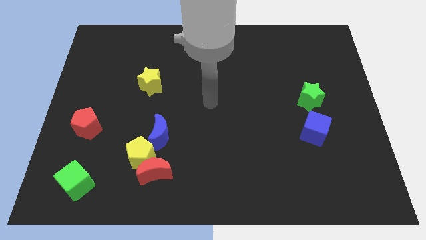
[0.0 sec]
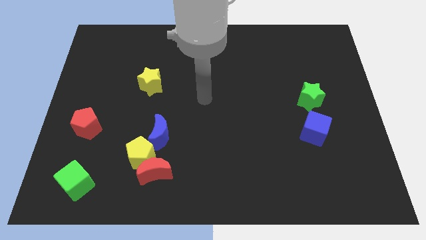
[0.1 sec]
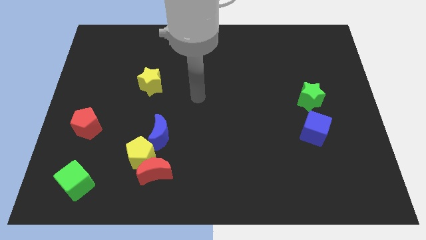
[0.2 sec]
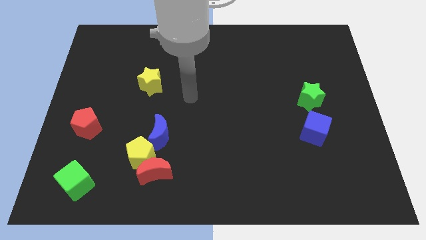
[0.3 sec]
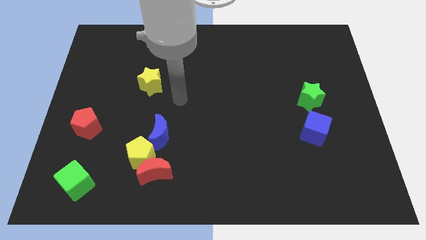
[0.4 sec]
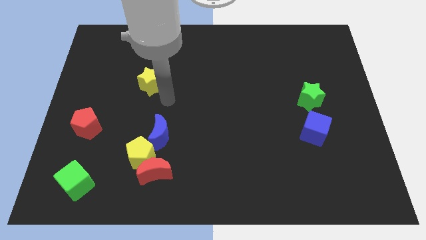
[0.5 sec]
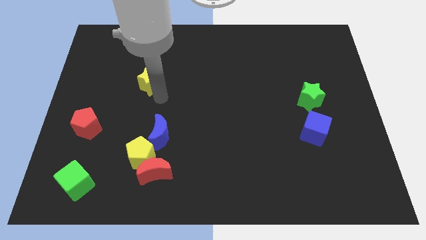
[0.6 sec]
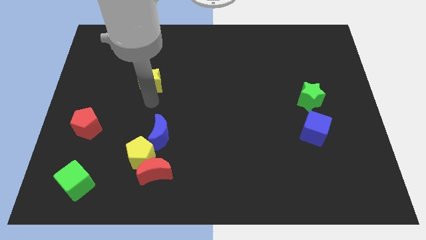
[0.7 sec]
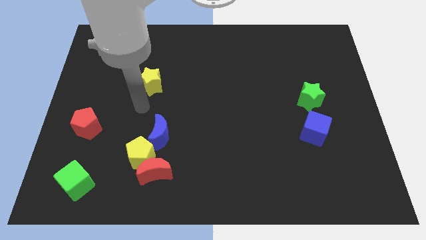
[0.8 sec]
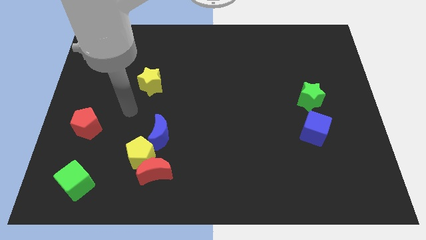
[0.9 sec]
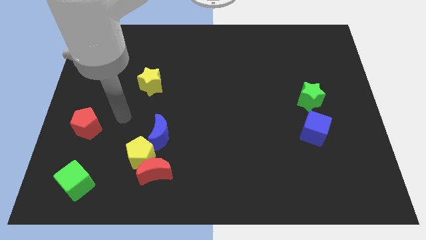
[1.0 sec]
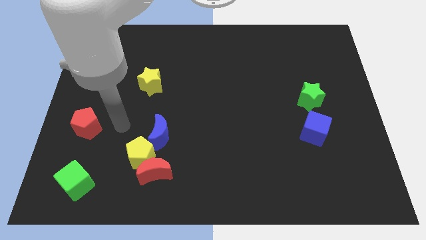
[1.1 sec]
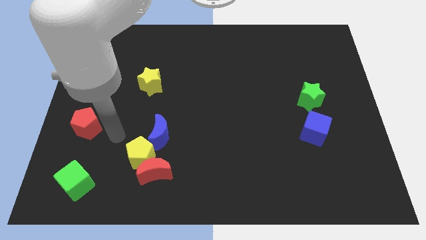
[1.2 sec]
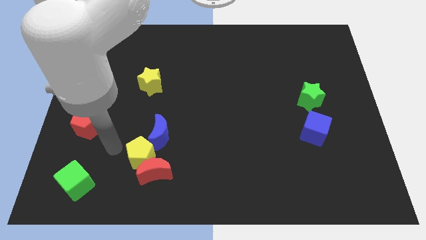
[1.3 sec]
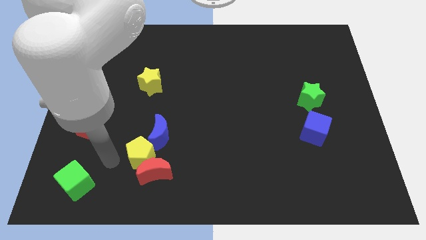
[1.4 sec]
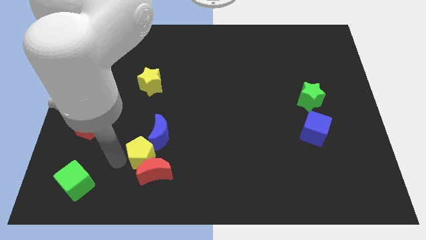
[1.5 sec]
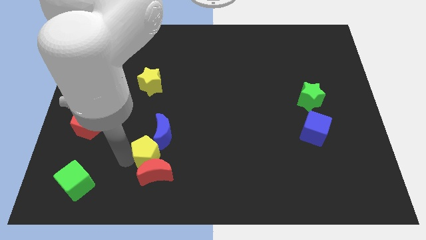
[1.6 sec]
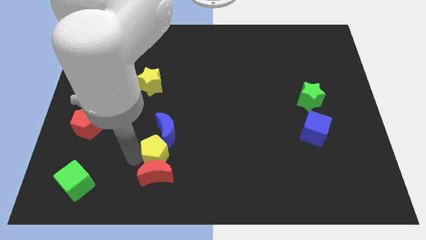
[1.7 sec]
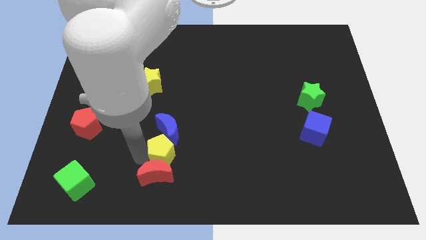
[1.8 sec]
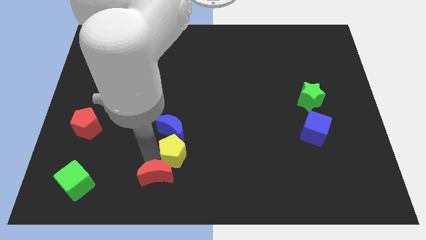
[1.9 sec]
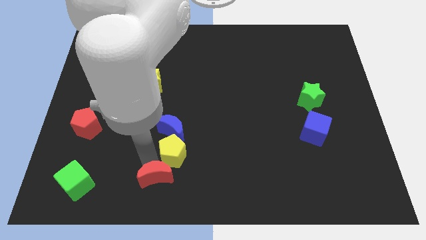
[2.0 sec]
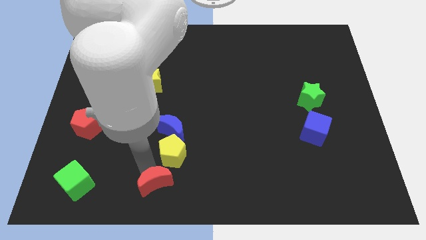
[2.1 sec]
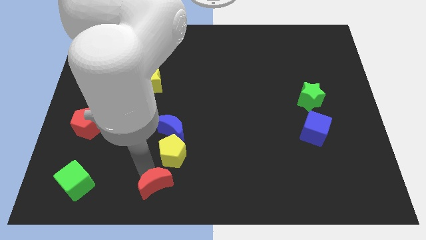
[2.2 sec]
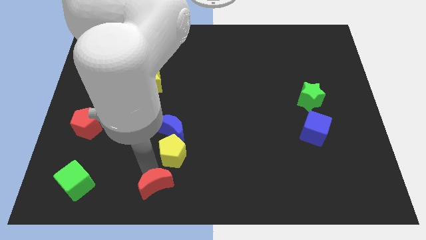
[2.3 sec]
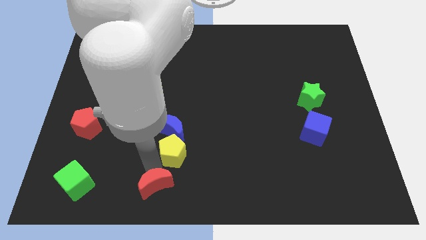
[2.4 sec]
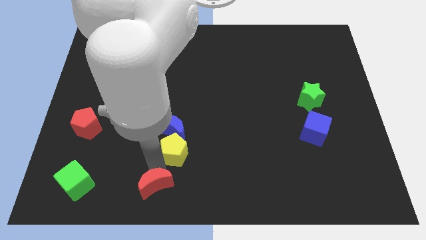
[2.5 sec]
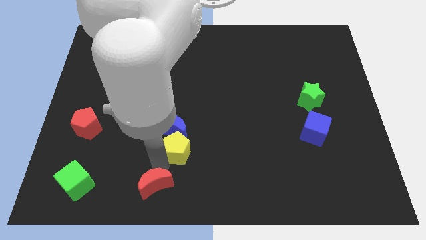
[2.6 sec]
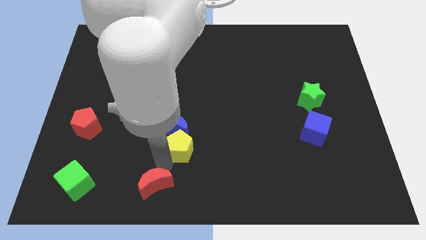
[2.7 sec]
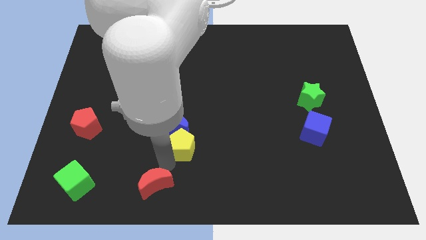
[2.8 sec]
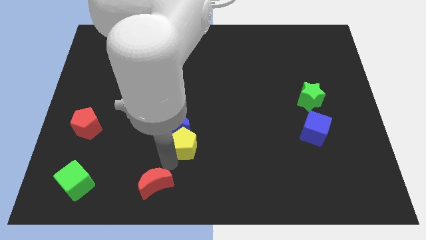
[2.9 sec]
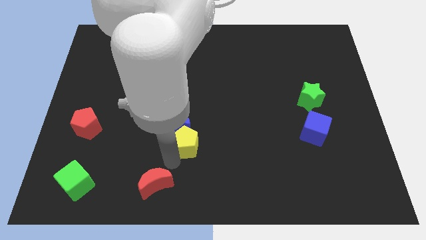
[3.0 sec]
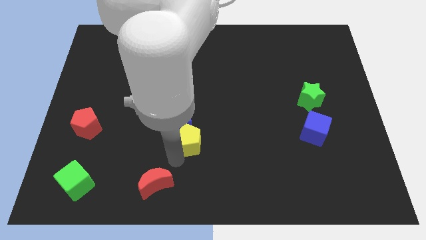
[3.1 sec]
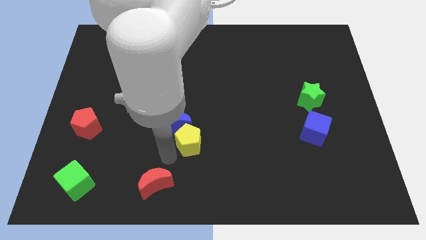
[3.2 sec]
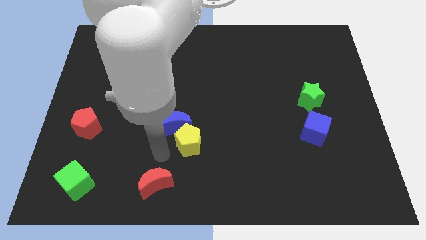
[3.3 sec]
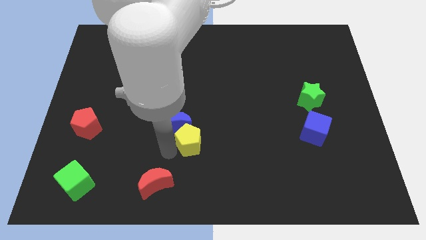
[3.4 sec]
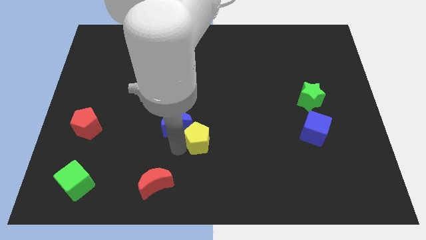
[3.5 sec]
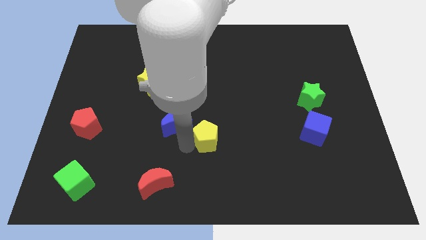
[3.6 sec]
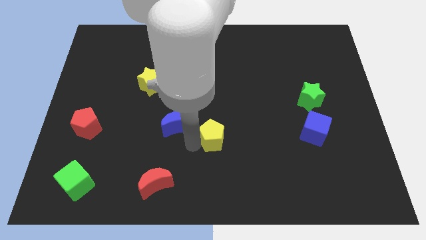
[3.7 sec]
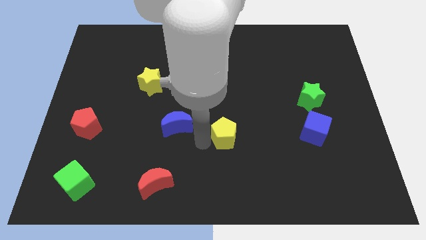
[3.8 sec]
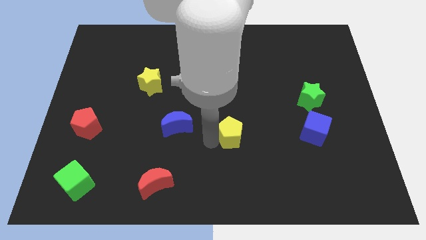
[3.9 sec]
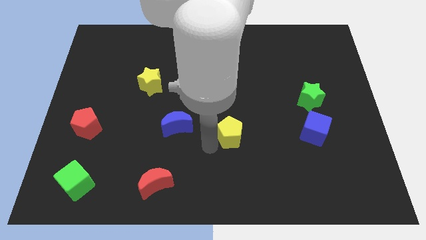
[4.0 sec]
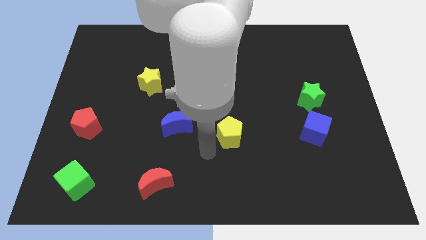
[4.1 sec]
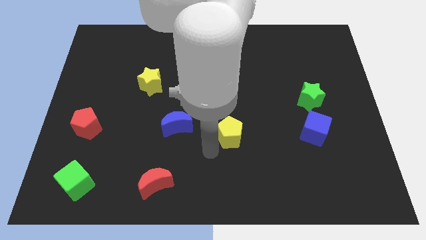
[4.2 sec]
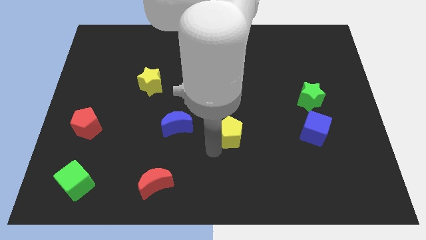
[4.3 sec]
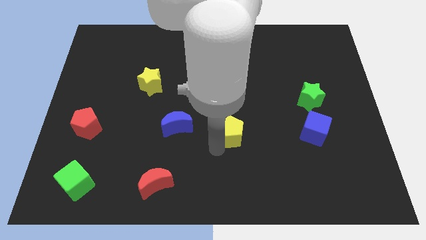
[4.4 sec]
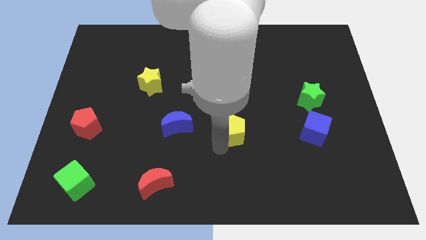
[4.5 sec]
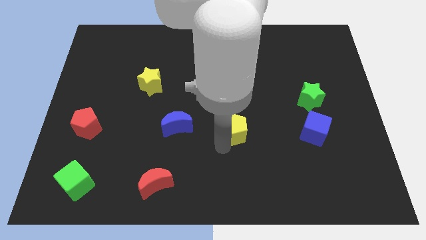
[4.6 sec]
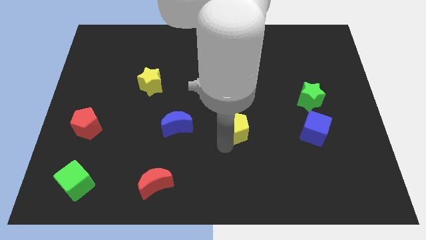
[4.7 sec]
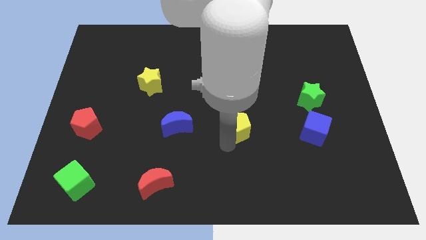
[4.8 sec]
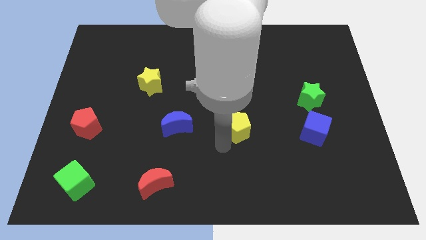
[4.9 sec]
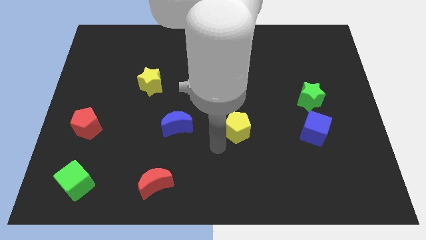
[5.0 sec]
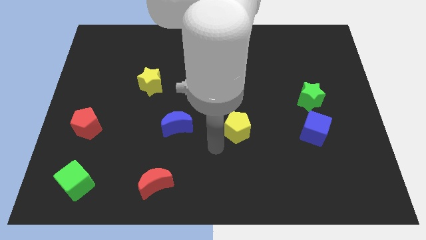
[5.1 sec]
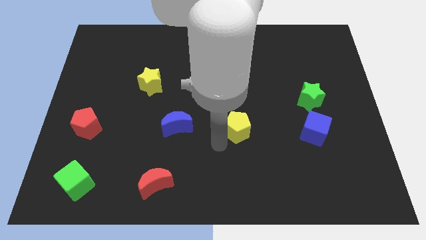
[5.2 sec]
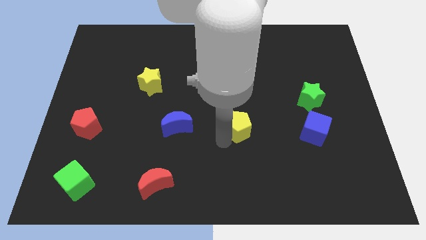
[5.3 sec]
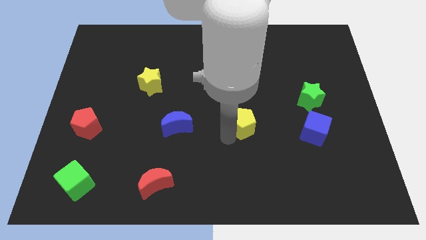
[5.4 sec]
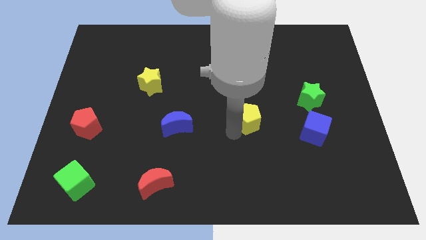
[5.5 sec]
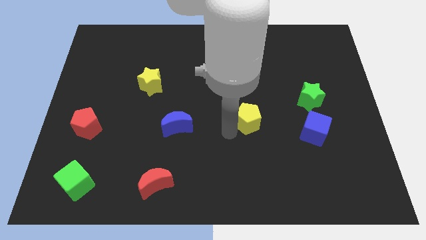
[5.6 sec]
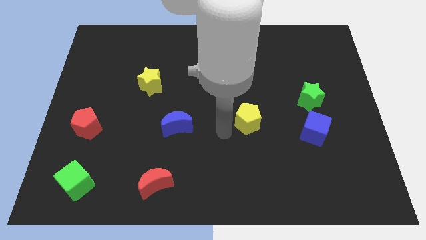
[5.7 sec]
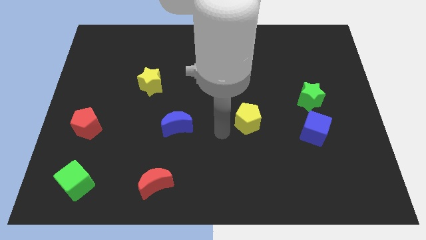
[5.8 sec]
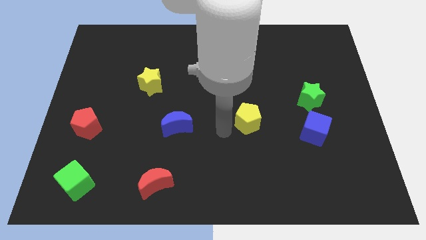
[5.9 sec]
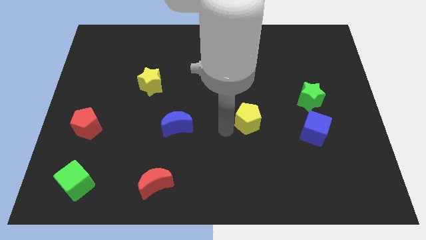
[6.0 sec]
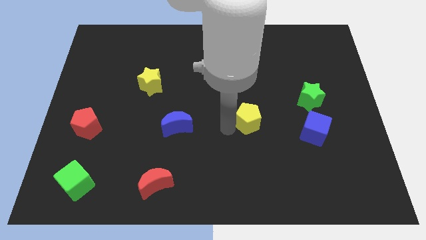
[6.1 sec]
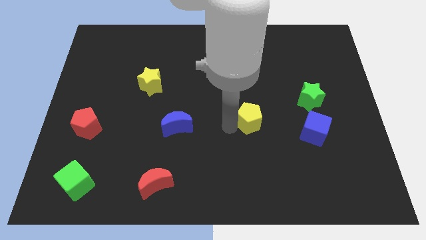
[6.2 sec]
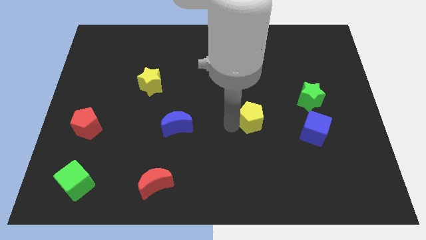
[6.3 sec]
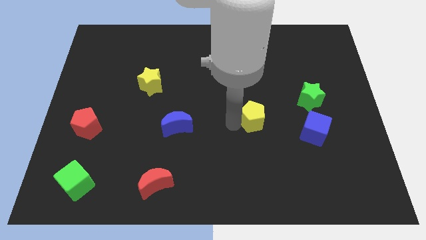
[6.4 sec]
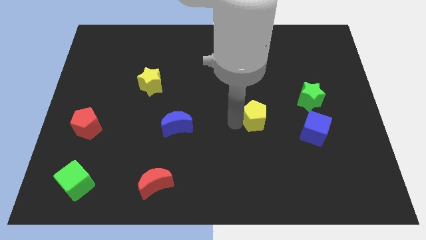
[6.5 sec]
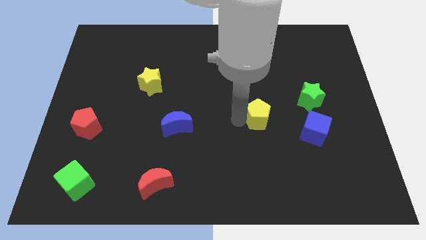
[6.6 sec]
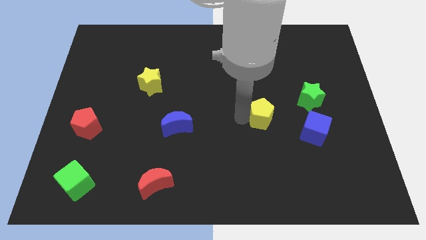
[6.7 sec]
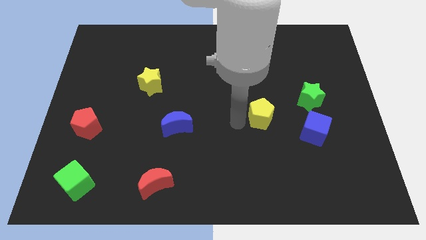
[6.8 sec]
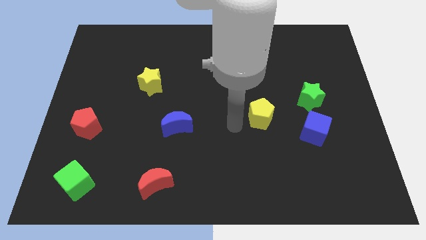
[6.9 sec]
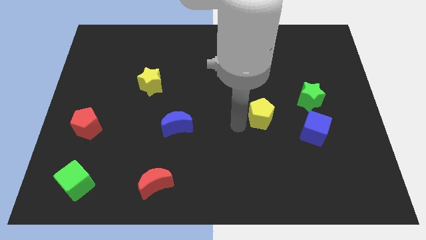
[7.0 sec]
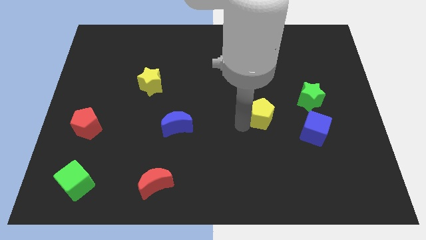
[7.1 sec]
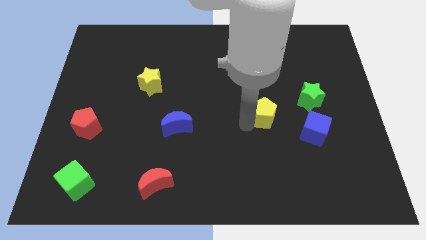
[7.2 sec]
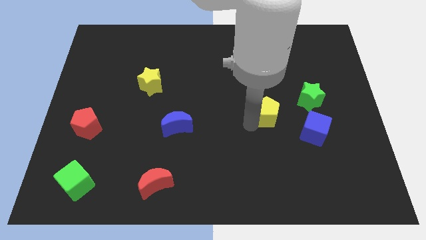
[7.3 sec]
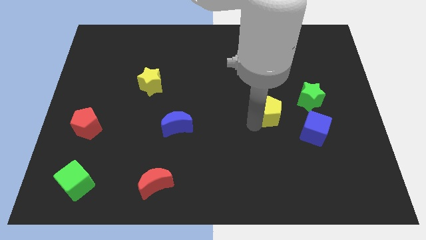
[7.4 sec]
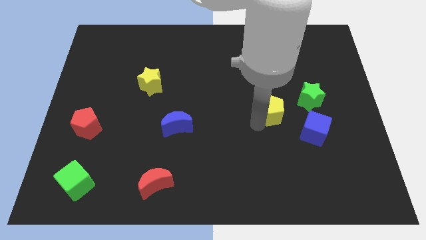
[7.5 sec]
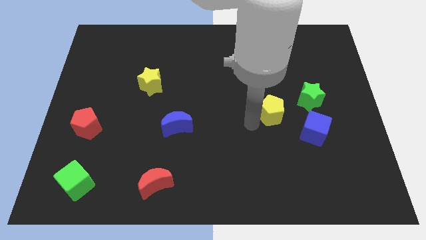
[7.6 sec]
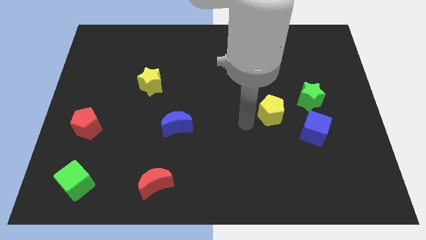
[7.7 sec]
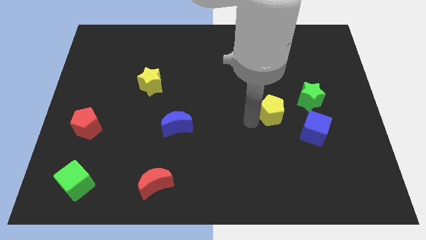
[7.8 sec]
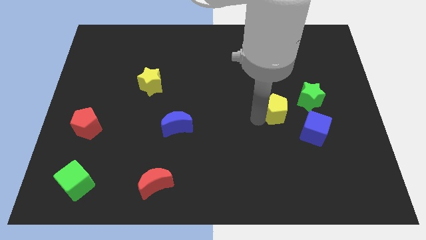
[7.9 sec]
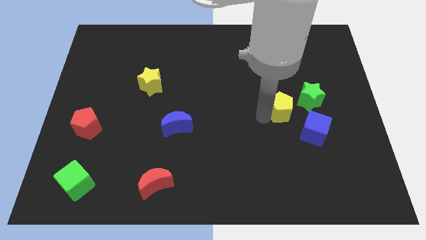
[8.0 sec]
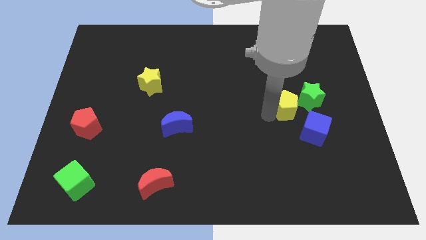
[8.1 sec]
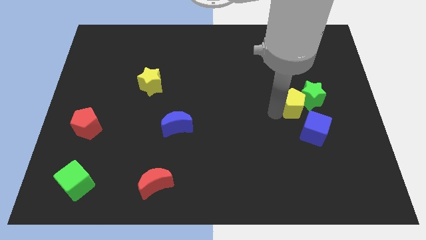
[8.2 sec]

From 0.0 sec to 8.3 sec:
push the yellow pentagon next to the green star
